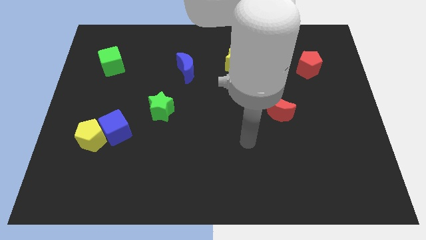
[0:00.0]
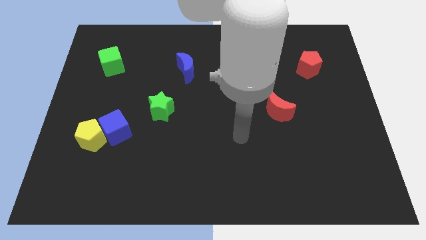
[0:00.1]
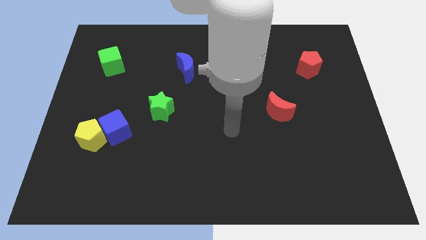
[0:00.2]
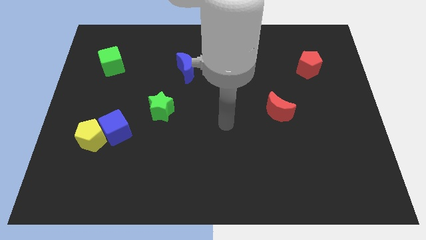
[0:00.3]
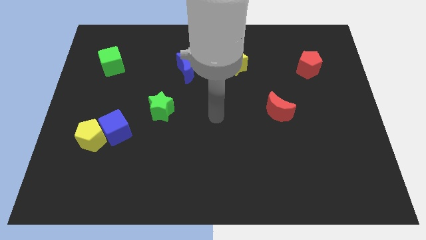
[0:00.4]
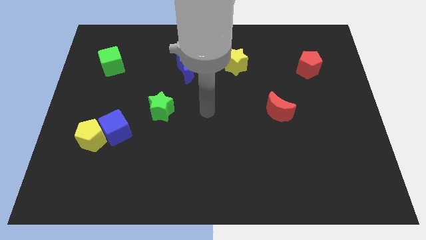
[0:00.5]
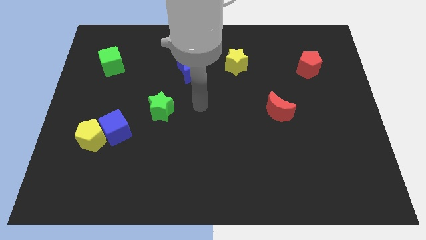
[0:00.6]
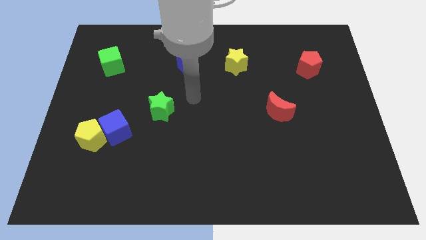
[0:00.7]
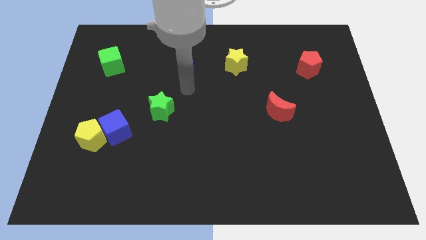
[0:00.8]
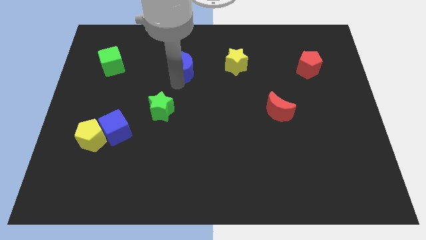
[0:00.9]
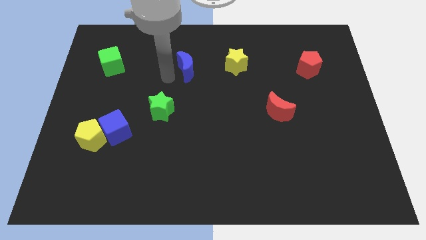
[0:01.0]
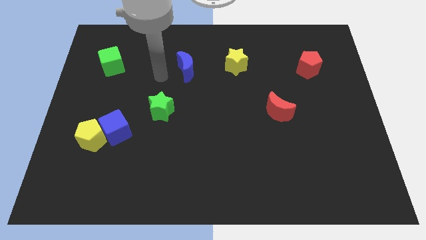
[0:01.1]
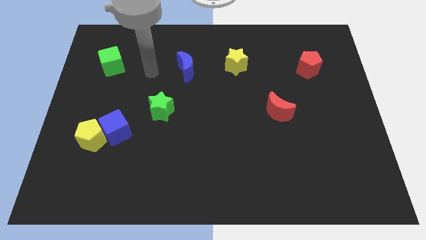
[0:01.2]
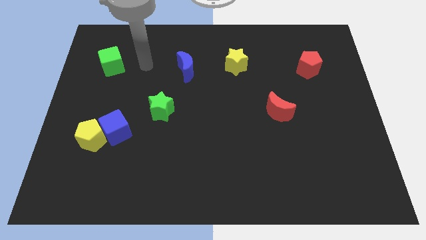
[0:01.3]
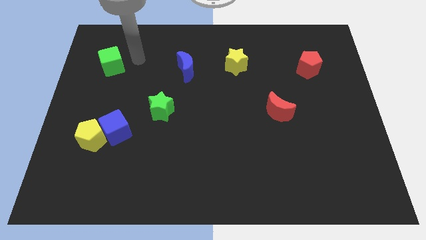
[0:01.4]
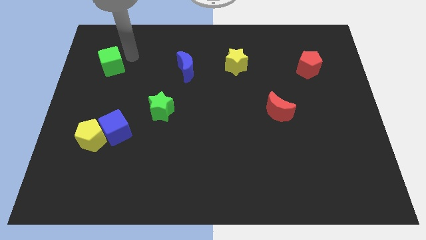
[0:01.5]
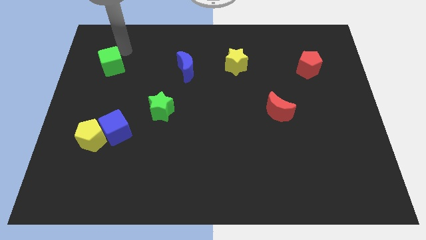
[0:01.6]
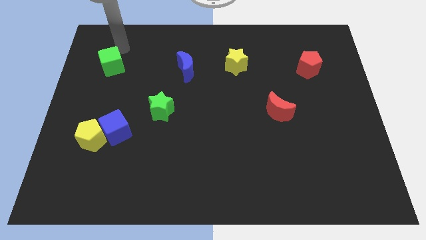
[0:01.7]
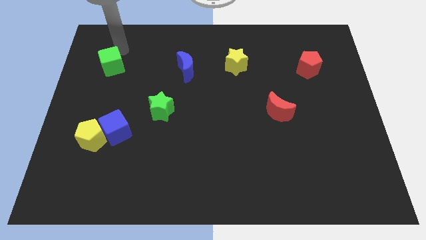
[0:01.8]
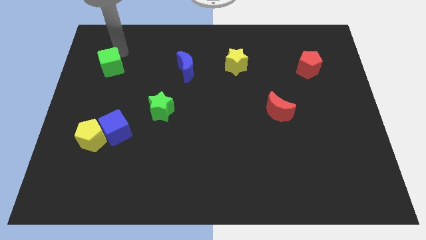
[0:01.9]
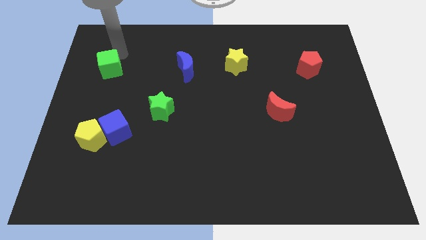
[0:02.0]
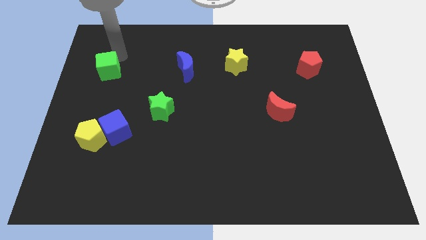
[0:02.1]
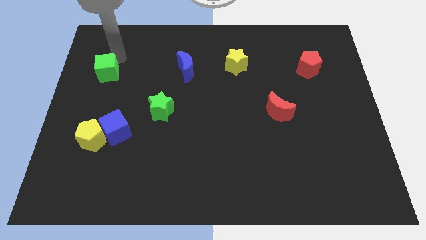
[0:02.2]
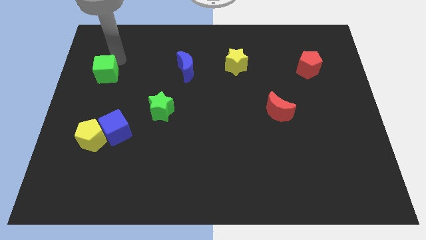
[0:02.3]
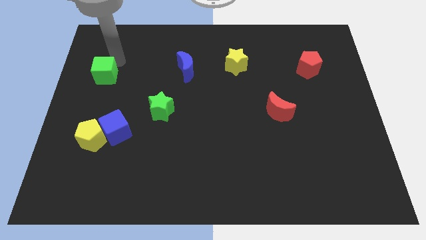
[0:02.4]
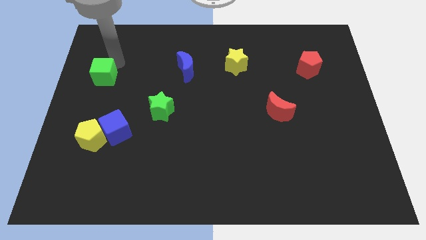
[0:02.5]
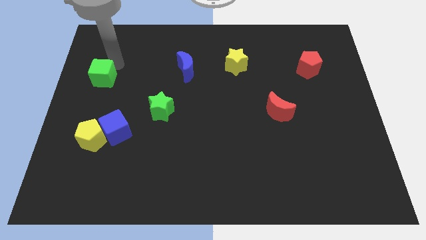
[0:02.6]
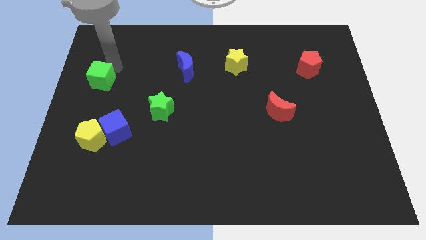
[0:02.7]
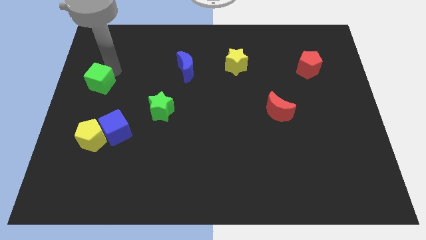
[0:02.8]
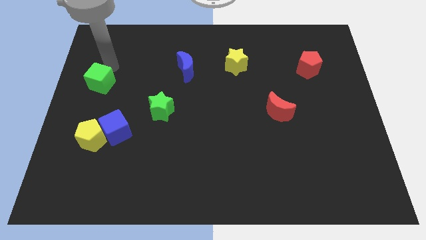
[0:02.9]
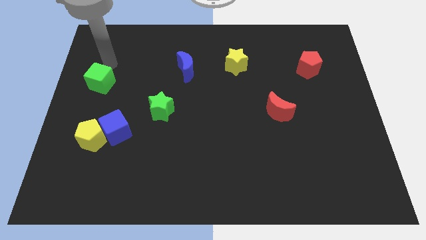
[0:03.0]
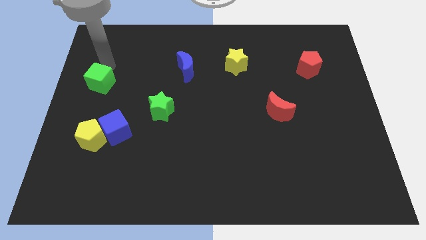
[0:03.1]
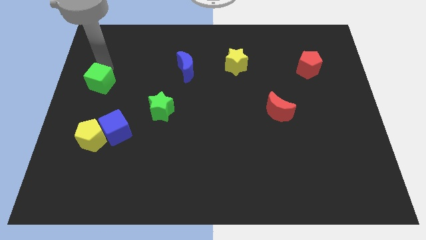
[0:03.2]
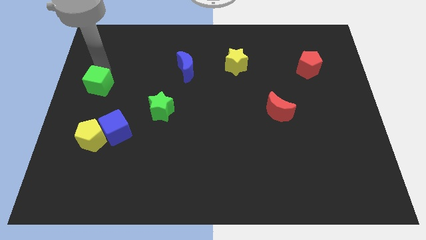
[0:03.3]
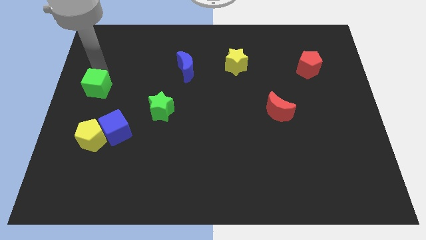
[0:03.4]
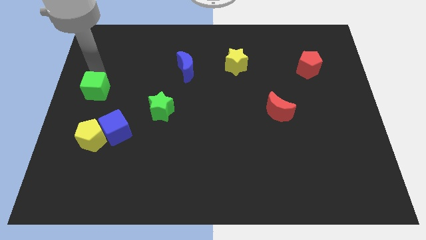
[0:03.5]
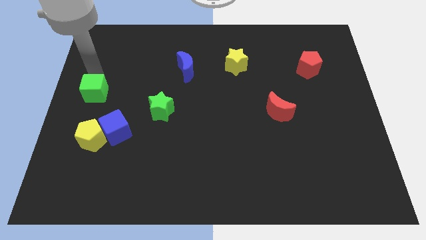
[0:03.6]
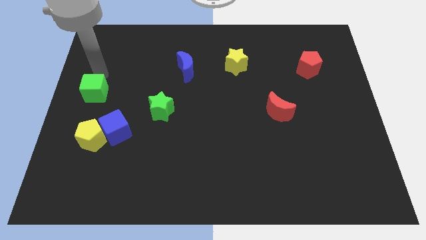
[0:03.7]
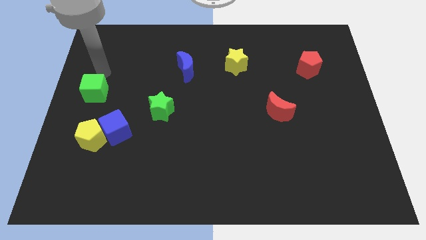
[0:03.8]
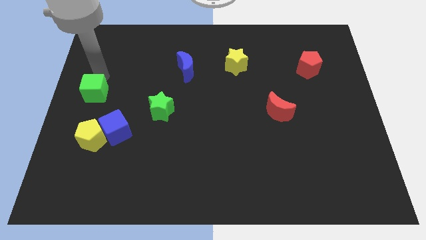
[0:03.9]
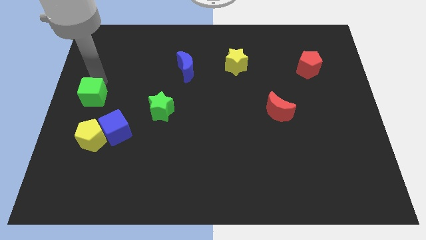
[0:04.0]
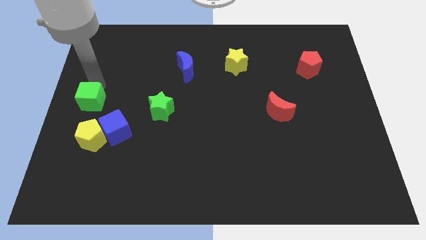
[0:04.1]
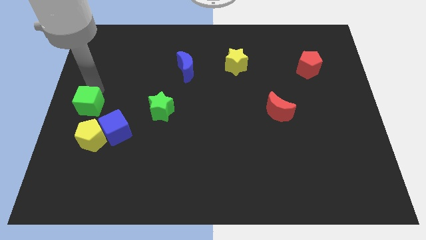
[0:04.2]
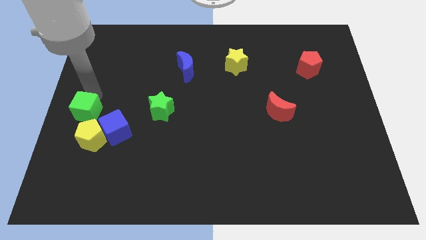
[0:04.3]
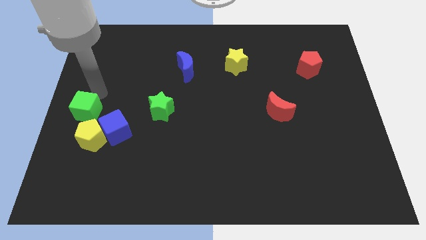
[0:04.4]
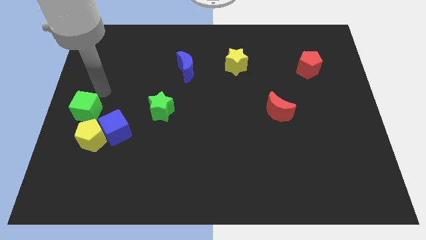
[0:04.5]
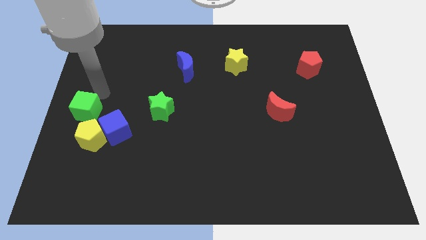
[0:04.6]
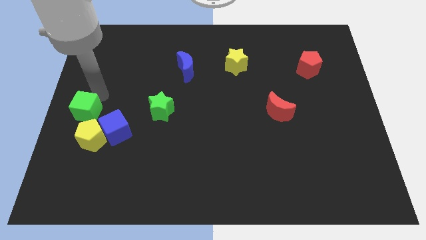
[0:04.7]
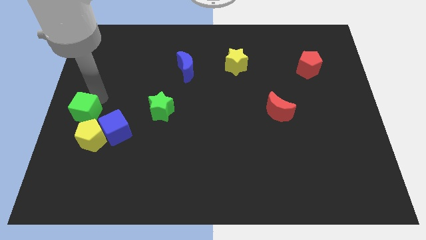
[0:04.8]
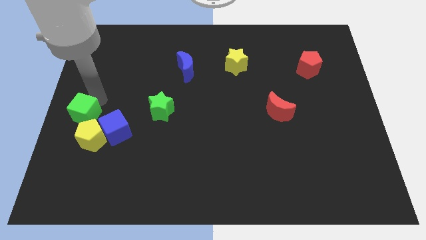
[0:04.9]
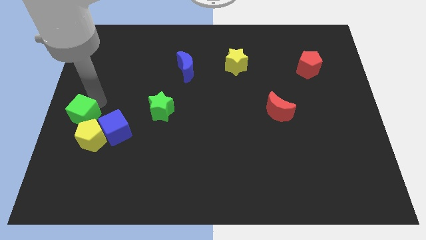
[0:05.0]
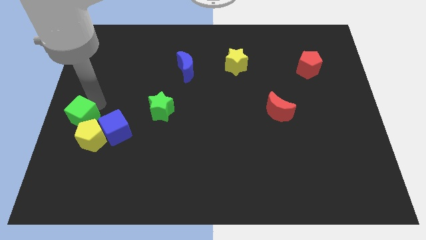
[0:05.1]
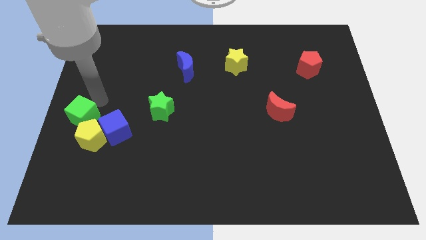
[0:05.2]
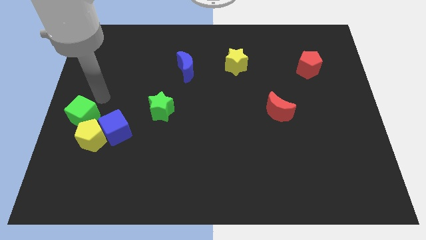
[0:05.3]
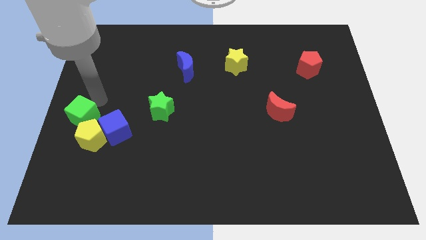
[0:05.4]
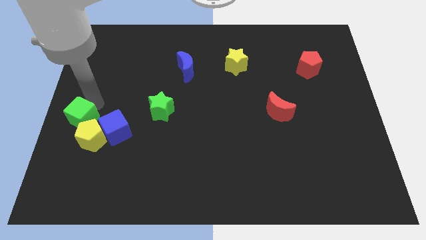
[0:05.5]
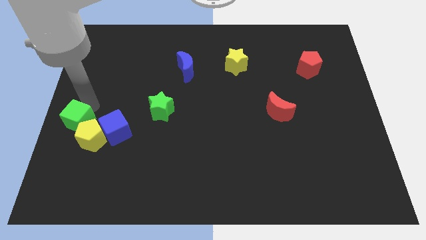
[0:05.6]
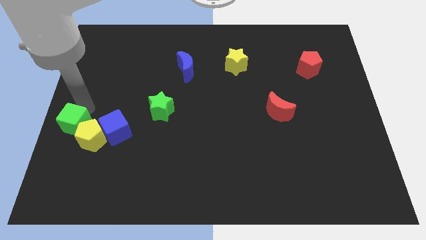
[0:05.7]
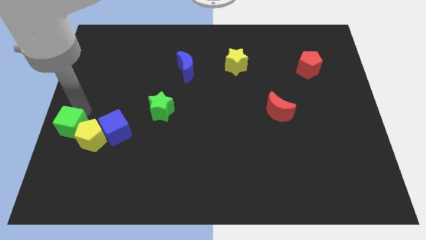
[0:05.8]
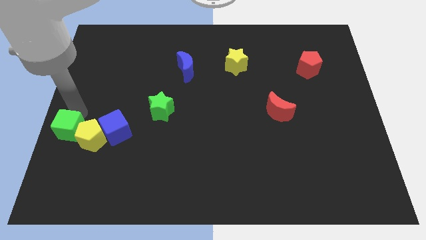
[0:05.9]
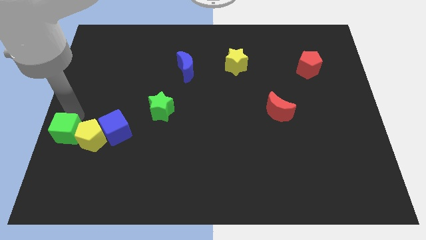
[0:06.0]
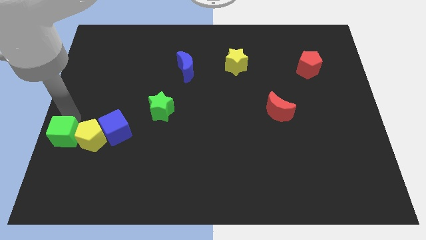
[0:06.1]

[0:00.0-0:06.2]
move the green cube down

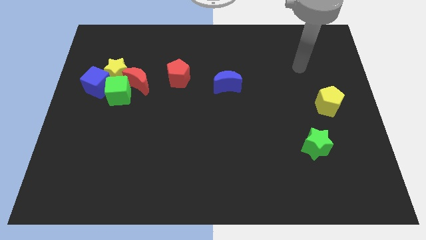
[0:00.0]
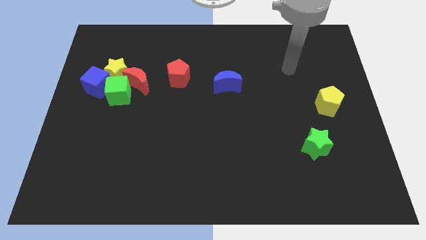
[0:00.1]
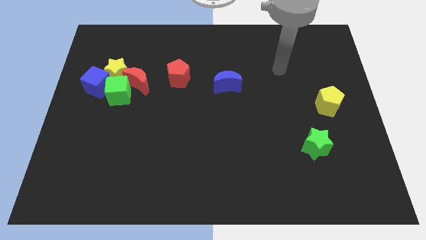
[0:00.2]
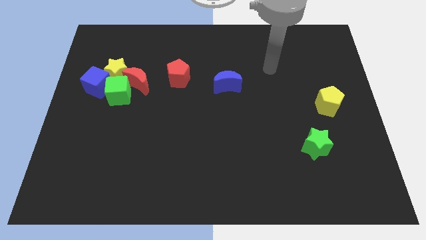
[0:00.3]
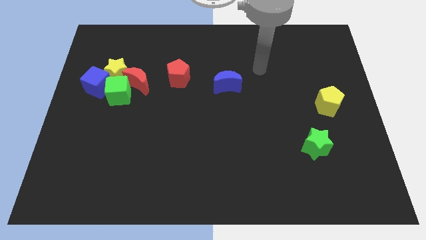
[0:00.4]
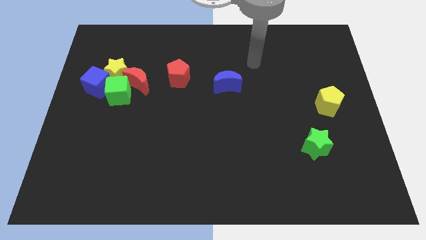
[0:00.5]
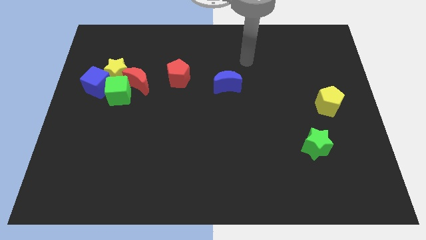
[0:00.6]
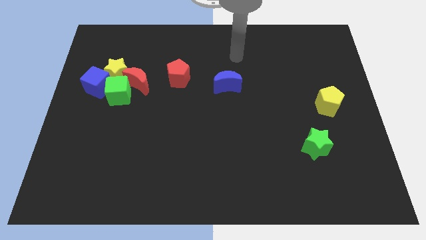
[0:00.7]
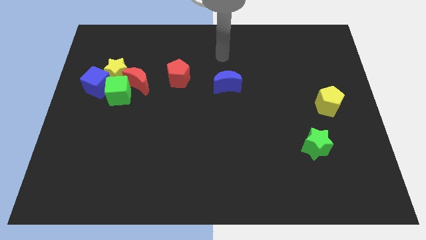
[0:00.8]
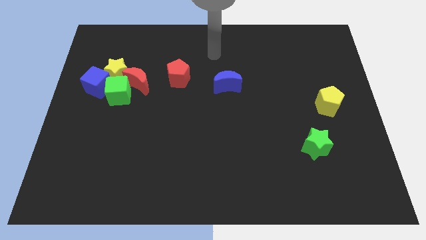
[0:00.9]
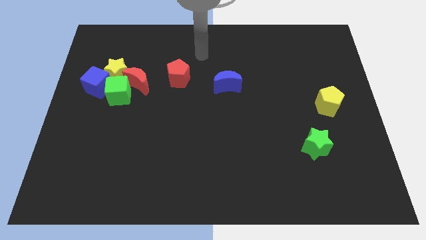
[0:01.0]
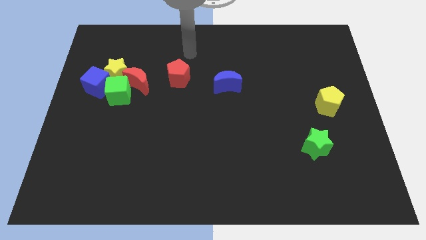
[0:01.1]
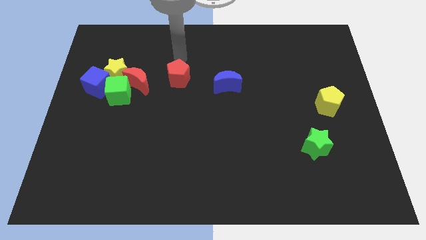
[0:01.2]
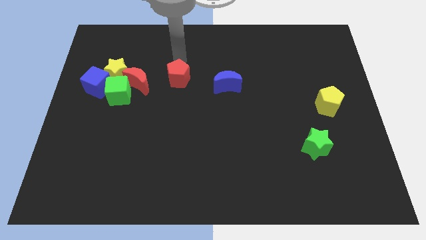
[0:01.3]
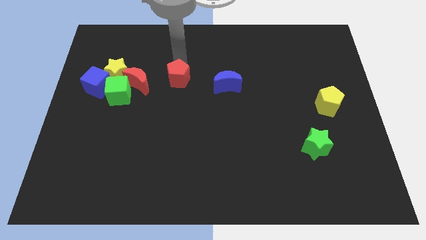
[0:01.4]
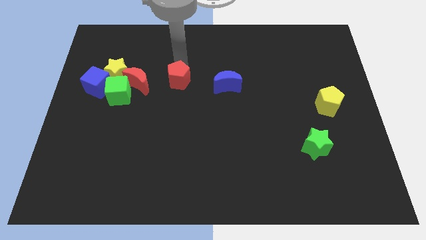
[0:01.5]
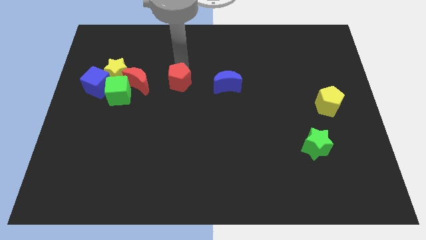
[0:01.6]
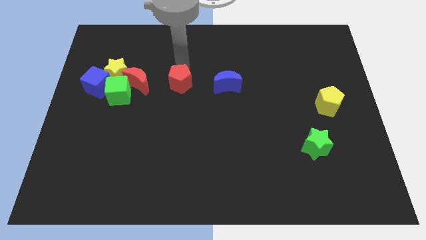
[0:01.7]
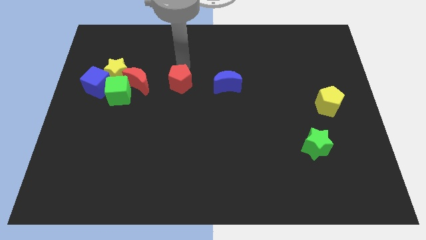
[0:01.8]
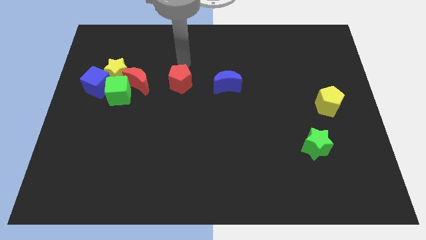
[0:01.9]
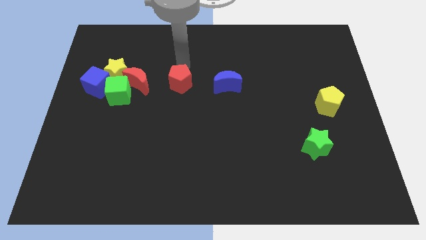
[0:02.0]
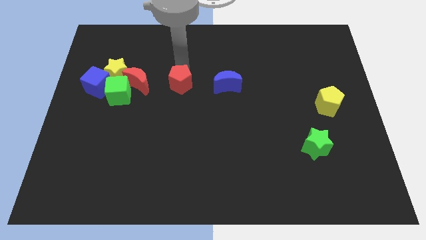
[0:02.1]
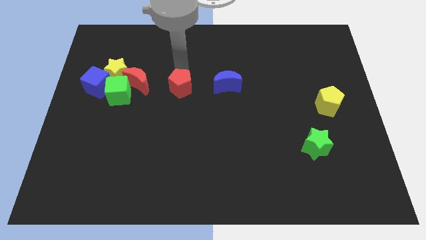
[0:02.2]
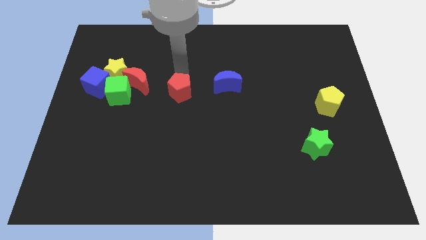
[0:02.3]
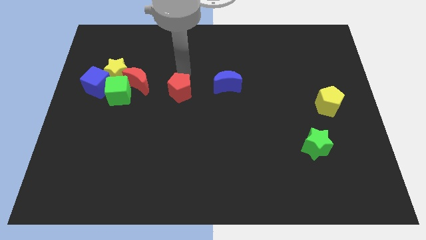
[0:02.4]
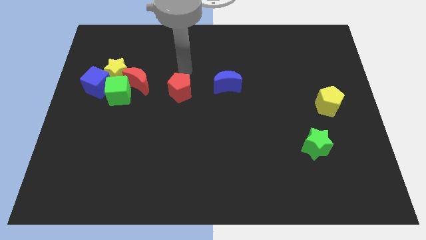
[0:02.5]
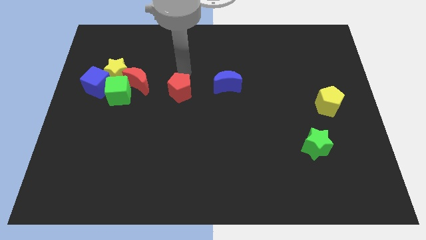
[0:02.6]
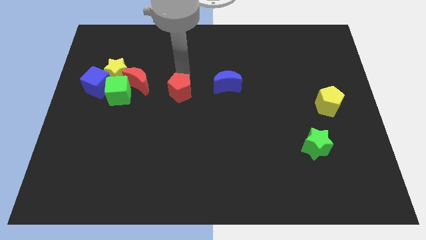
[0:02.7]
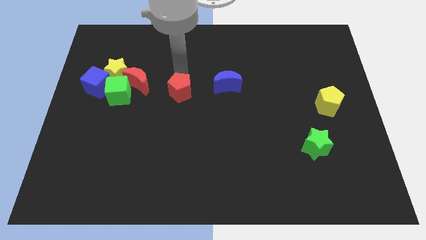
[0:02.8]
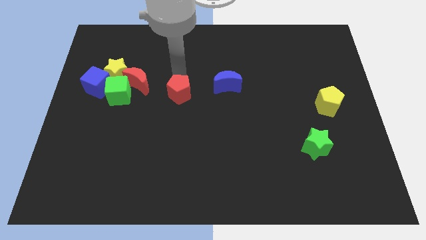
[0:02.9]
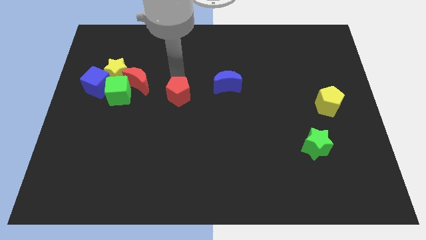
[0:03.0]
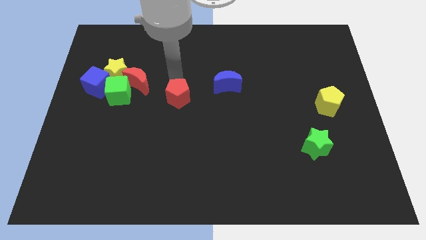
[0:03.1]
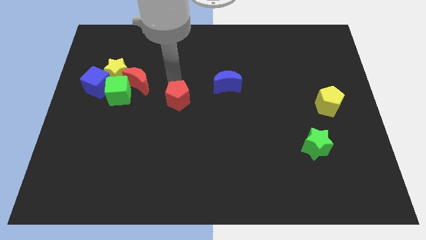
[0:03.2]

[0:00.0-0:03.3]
push the red pentagon a bit downwards
